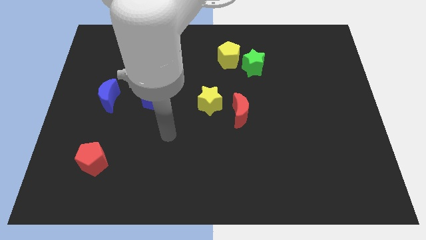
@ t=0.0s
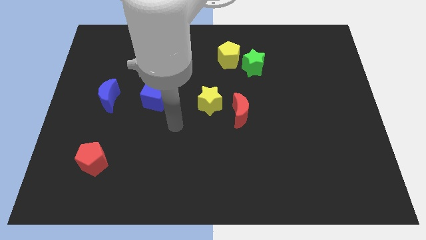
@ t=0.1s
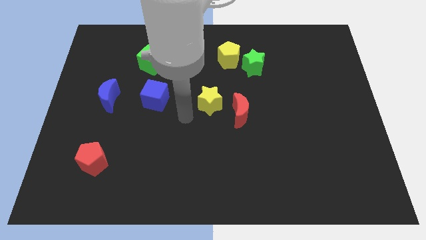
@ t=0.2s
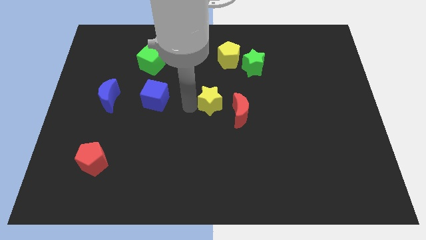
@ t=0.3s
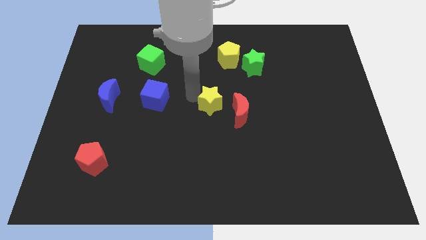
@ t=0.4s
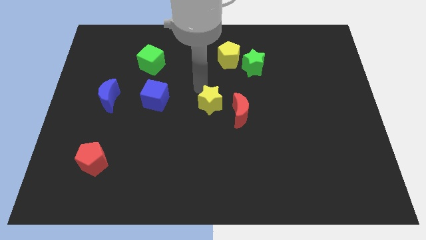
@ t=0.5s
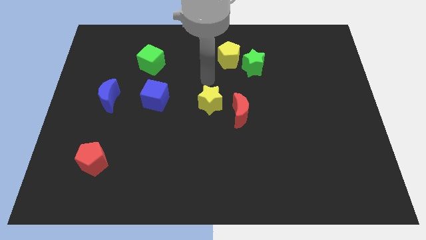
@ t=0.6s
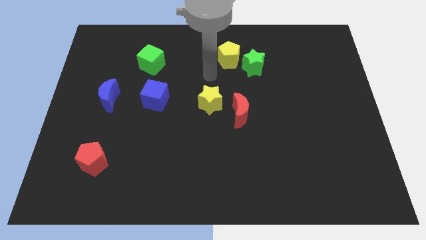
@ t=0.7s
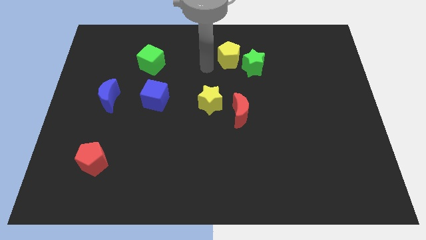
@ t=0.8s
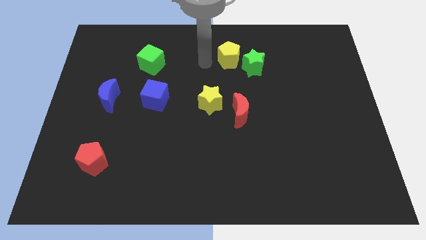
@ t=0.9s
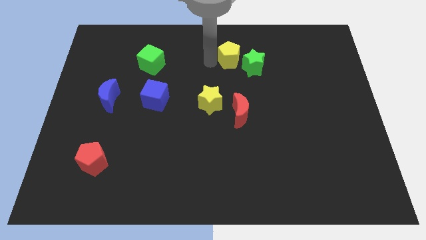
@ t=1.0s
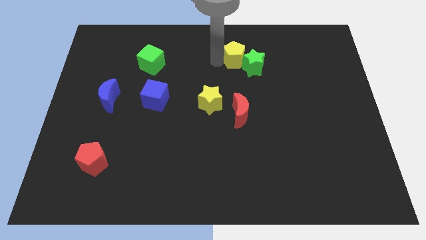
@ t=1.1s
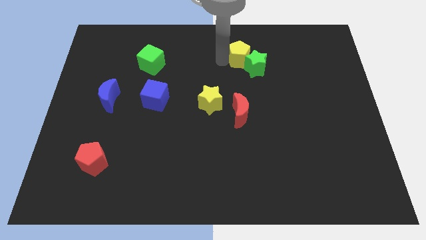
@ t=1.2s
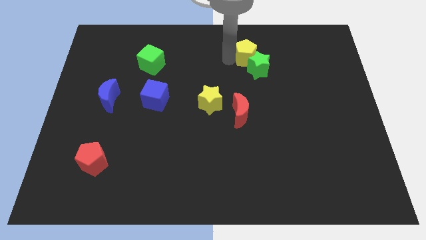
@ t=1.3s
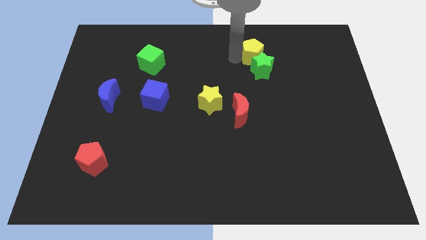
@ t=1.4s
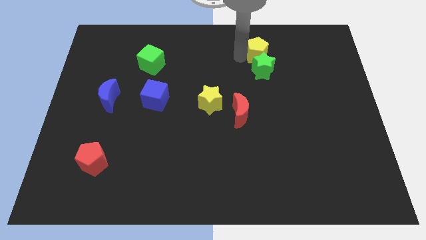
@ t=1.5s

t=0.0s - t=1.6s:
move the yellow pentagon somewhat right

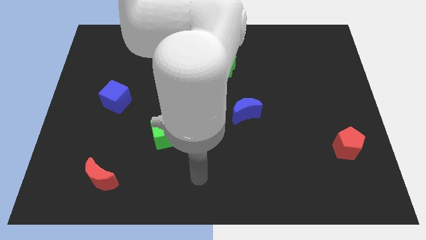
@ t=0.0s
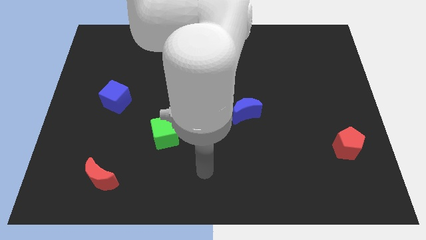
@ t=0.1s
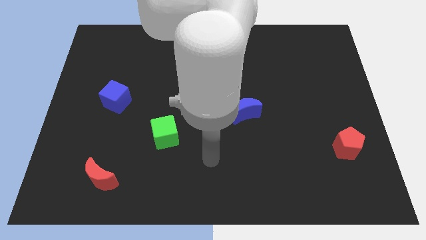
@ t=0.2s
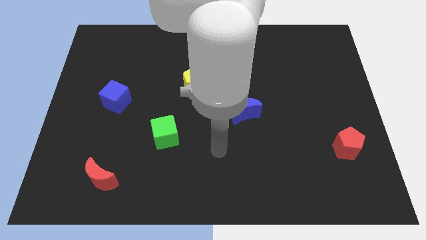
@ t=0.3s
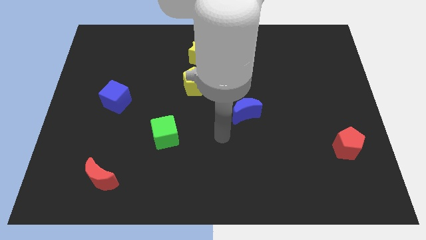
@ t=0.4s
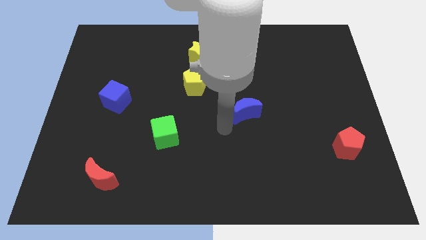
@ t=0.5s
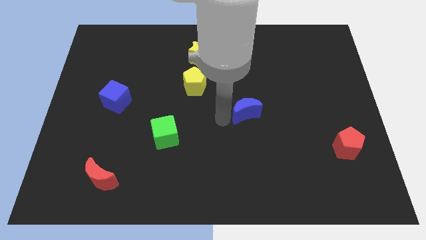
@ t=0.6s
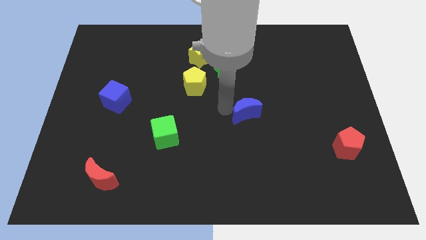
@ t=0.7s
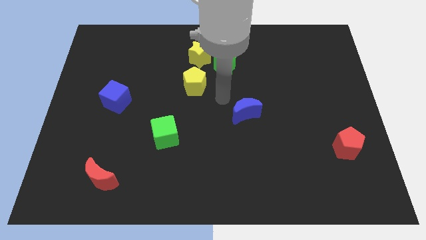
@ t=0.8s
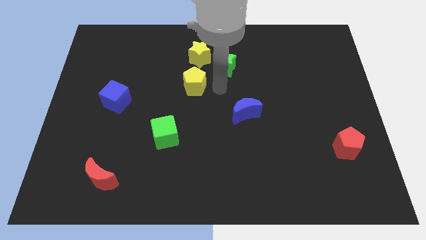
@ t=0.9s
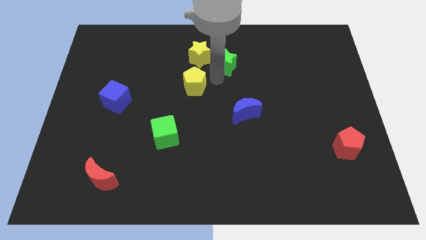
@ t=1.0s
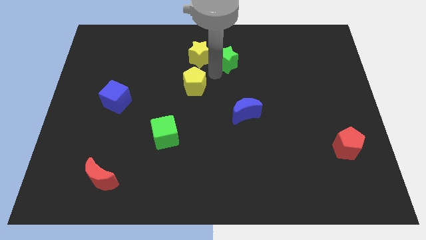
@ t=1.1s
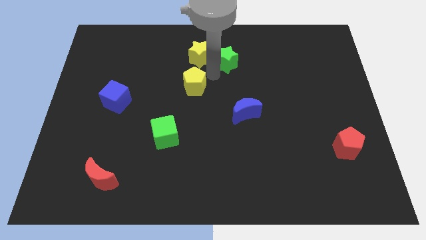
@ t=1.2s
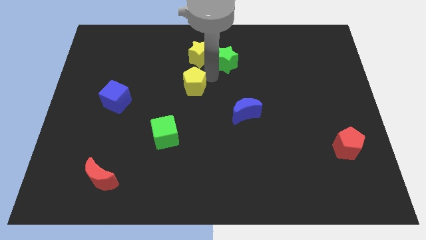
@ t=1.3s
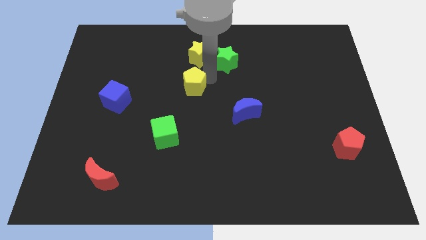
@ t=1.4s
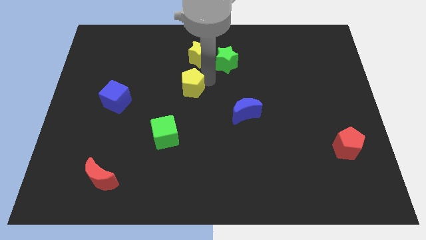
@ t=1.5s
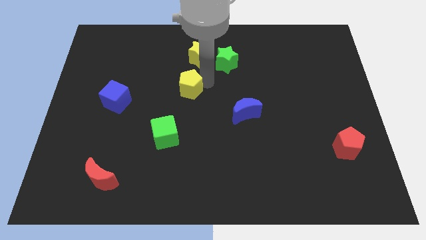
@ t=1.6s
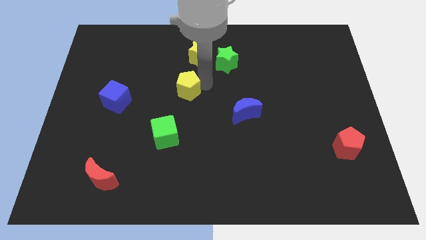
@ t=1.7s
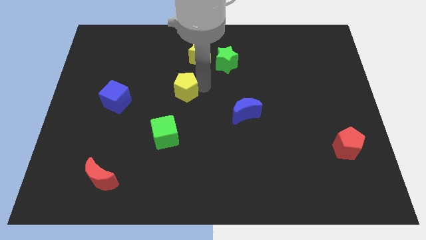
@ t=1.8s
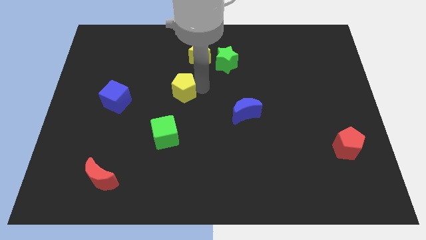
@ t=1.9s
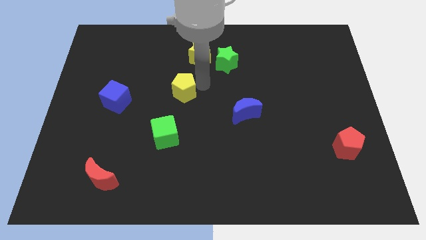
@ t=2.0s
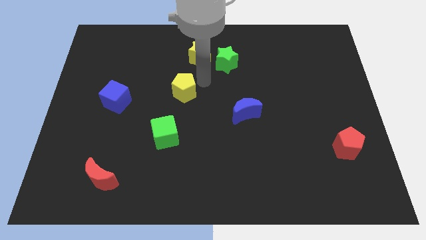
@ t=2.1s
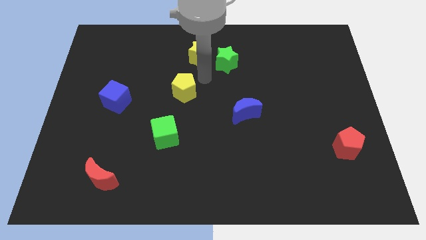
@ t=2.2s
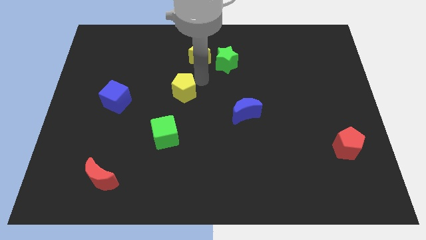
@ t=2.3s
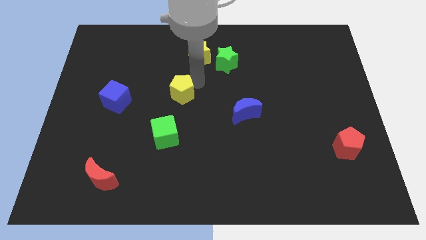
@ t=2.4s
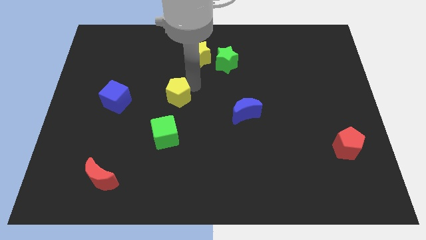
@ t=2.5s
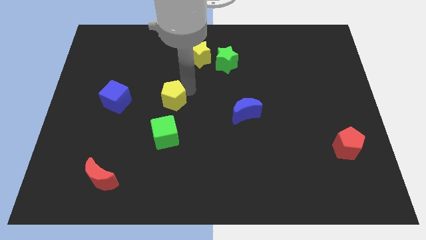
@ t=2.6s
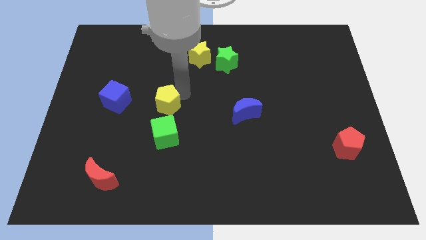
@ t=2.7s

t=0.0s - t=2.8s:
move the yellow pentagon down and to the left diagonally somewhat

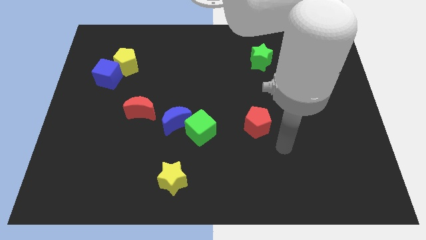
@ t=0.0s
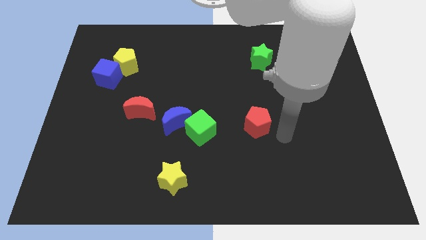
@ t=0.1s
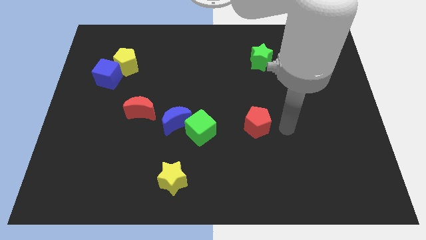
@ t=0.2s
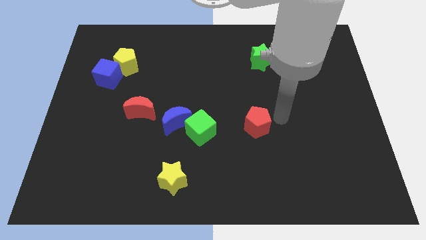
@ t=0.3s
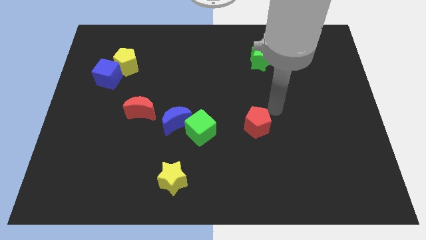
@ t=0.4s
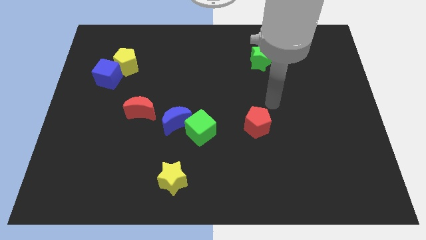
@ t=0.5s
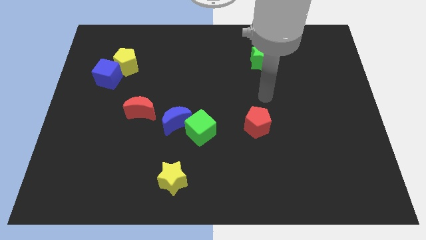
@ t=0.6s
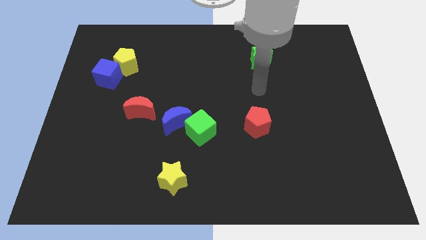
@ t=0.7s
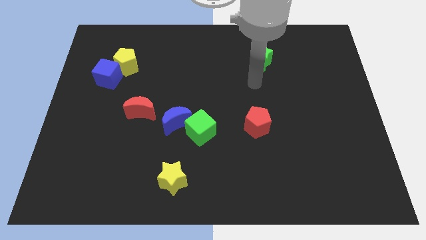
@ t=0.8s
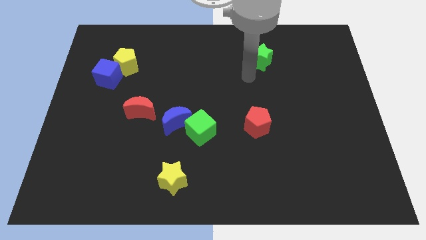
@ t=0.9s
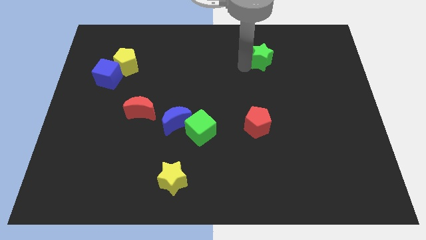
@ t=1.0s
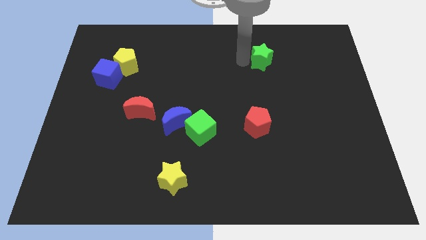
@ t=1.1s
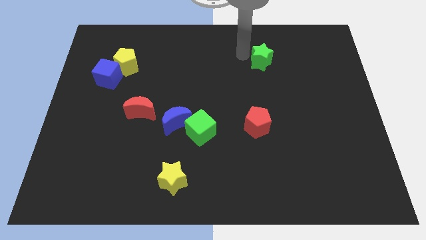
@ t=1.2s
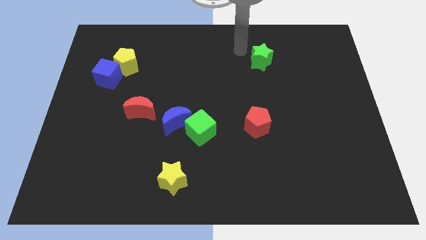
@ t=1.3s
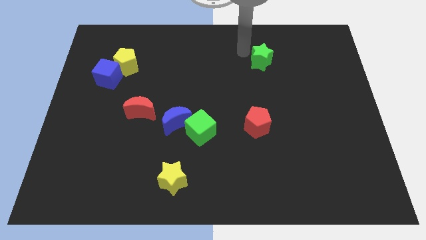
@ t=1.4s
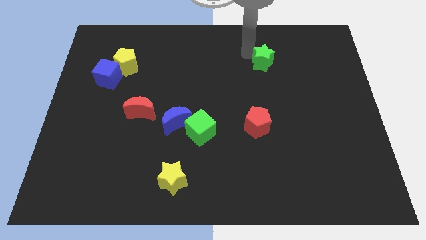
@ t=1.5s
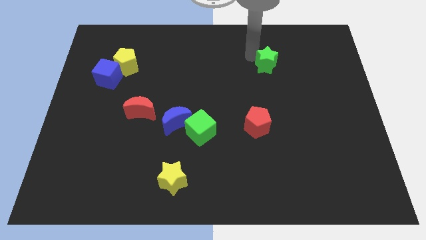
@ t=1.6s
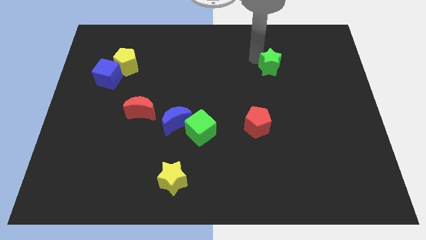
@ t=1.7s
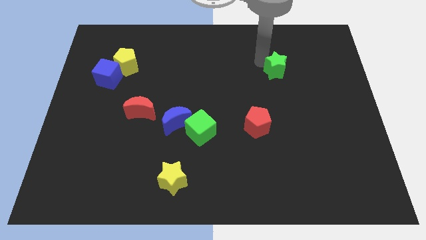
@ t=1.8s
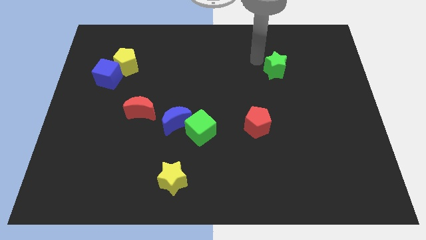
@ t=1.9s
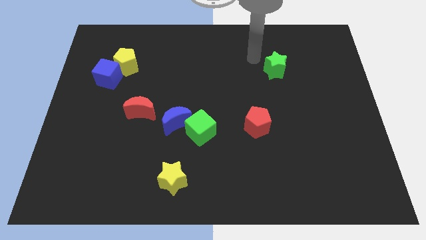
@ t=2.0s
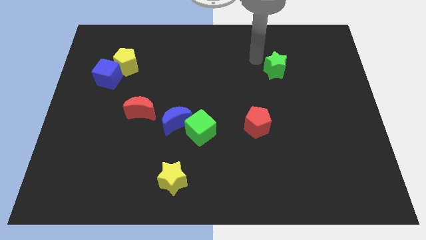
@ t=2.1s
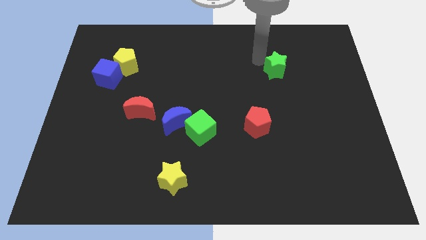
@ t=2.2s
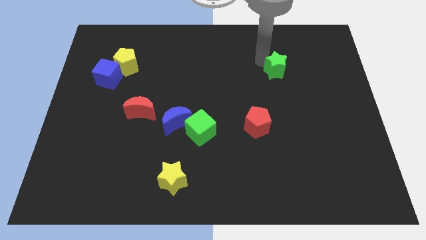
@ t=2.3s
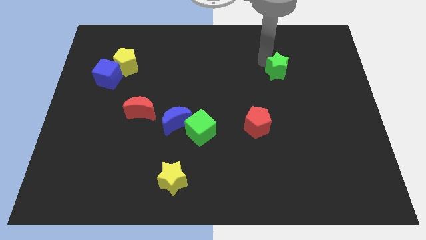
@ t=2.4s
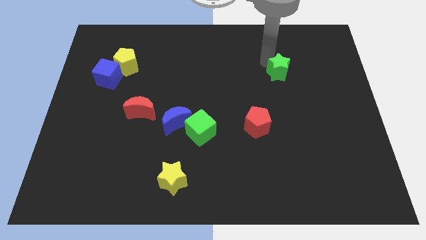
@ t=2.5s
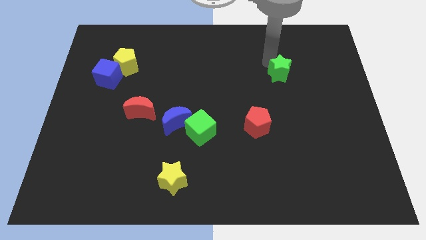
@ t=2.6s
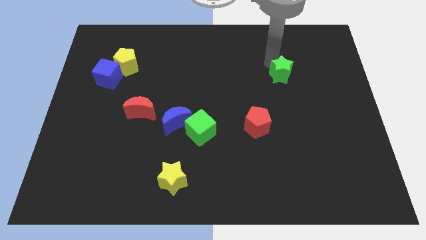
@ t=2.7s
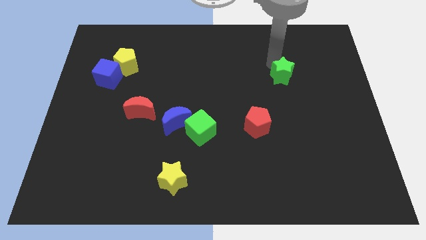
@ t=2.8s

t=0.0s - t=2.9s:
push the green star downwards and then to the right somewhat

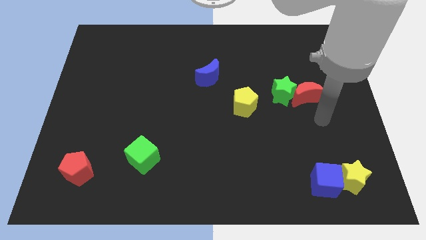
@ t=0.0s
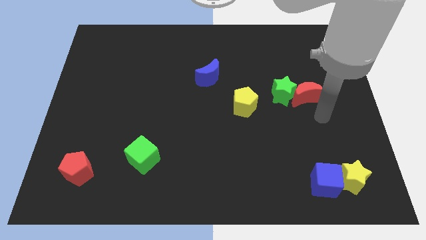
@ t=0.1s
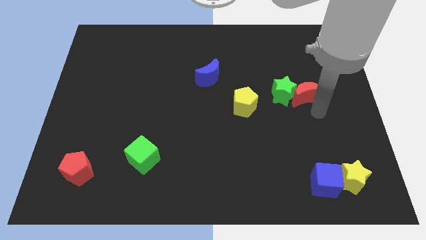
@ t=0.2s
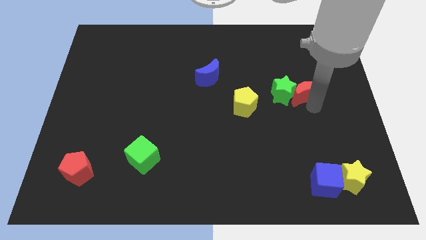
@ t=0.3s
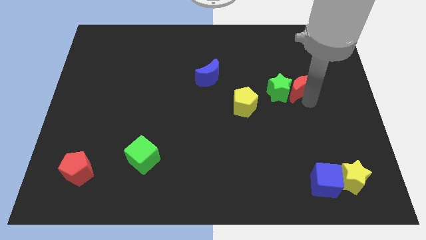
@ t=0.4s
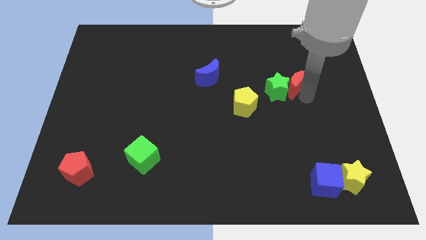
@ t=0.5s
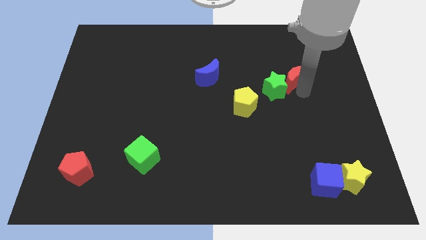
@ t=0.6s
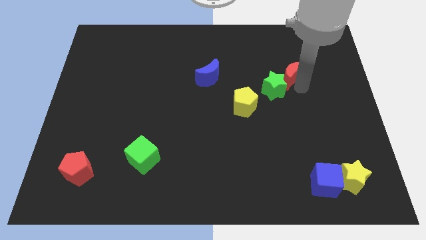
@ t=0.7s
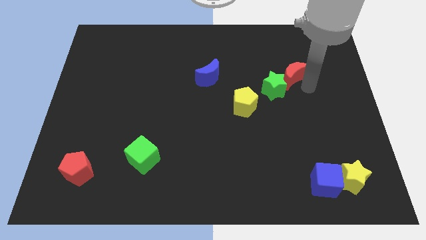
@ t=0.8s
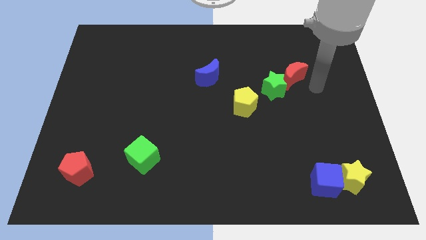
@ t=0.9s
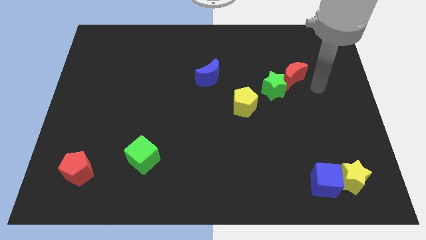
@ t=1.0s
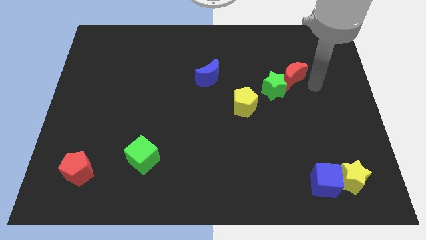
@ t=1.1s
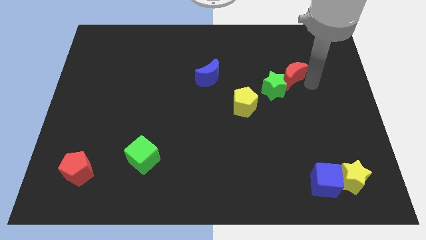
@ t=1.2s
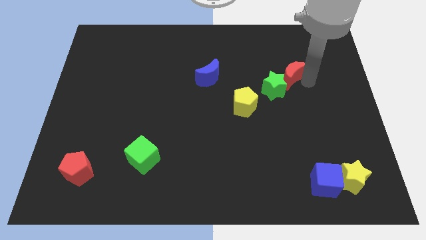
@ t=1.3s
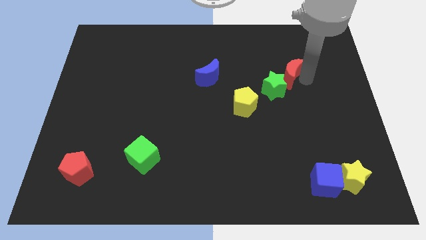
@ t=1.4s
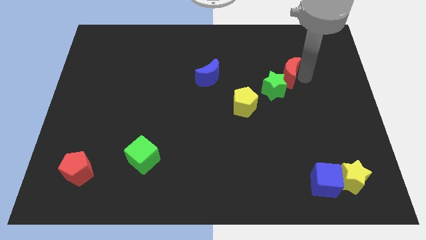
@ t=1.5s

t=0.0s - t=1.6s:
slightly push the red moon upwards and then to the left
